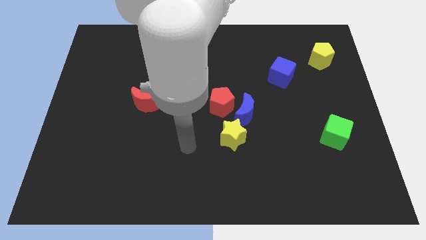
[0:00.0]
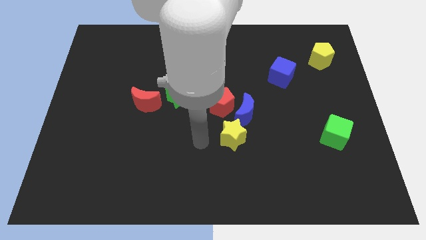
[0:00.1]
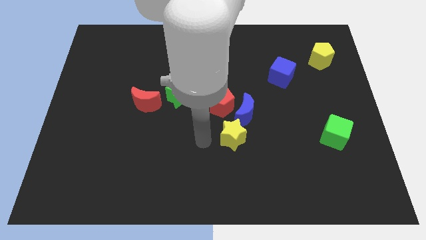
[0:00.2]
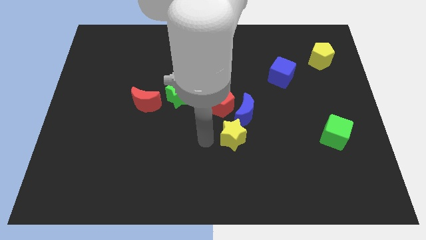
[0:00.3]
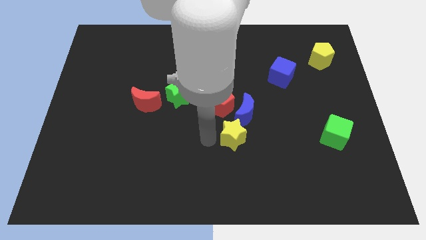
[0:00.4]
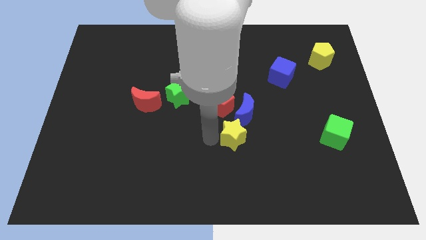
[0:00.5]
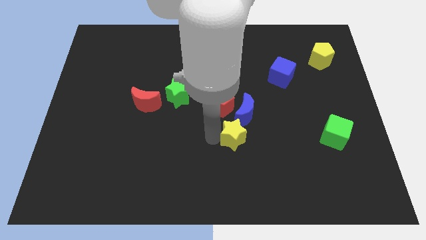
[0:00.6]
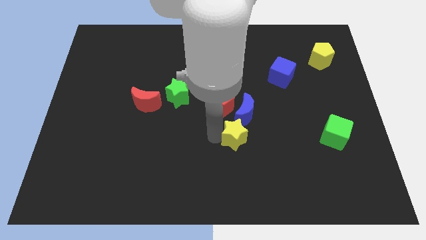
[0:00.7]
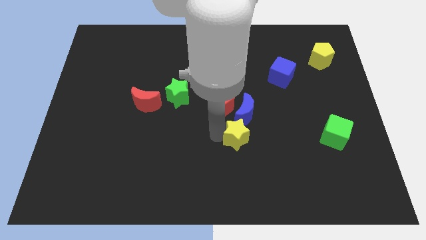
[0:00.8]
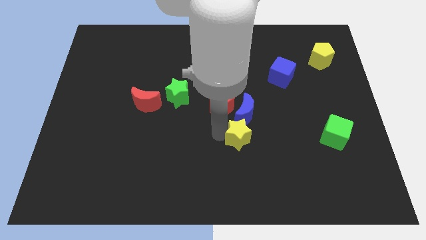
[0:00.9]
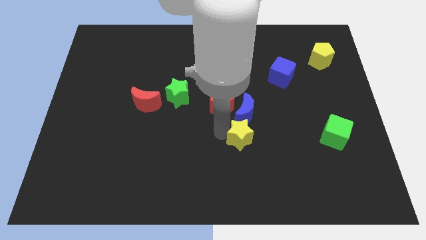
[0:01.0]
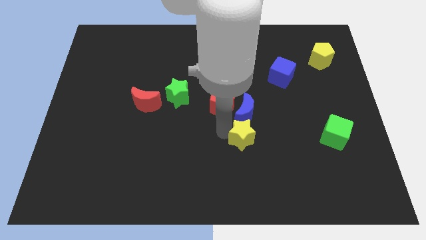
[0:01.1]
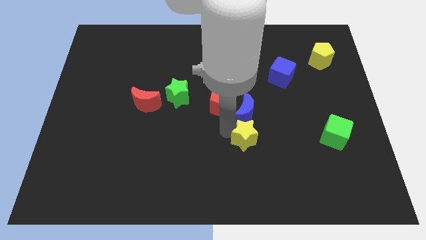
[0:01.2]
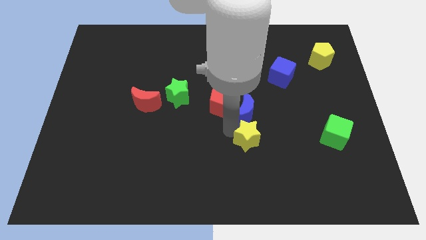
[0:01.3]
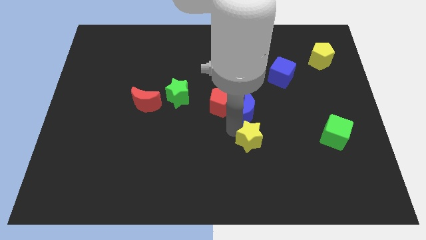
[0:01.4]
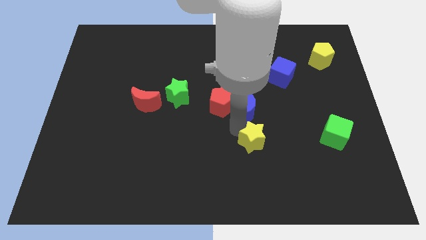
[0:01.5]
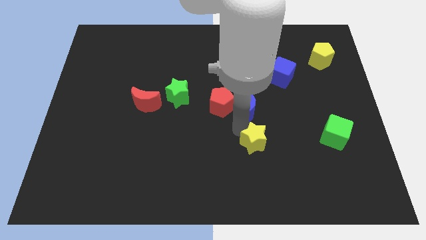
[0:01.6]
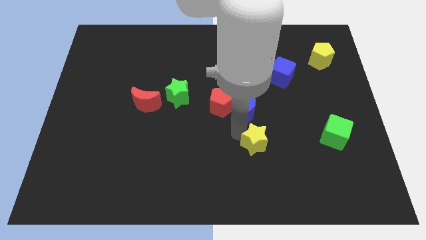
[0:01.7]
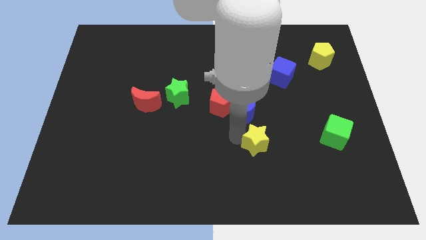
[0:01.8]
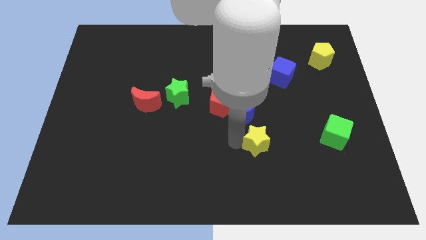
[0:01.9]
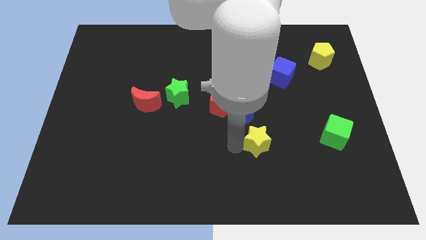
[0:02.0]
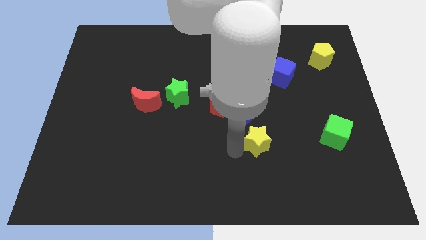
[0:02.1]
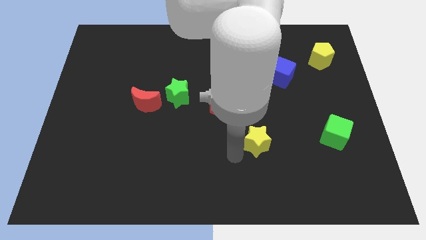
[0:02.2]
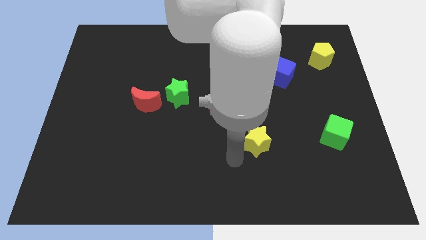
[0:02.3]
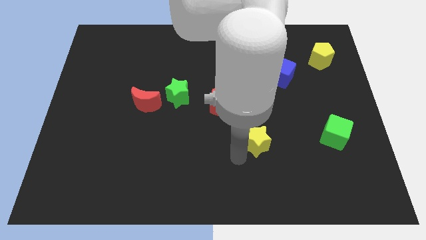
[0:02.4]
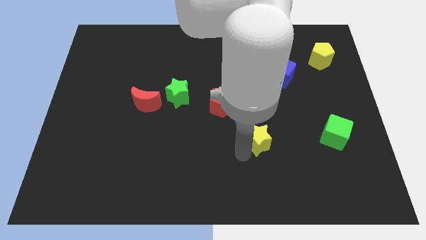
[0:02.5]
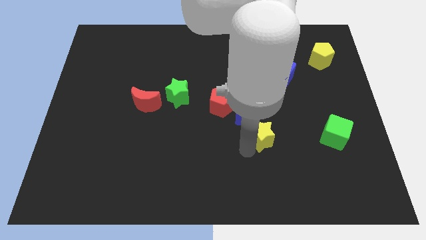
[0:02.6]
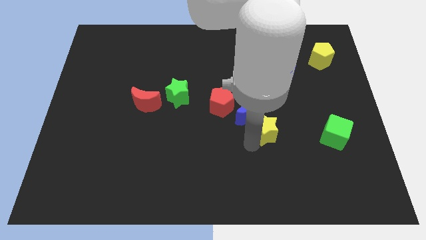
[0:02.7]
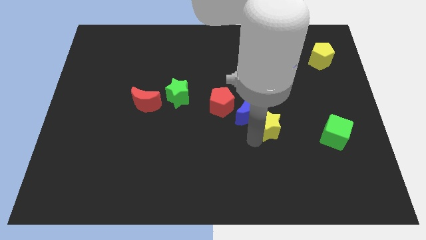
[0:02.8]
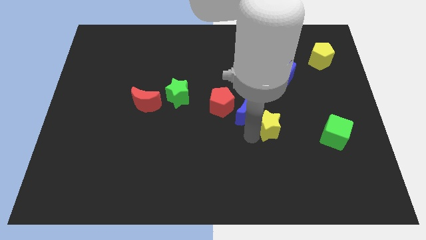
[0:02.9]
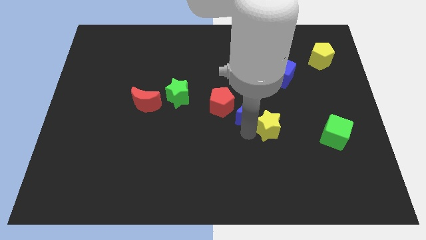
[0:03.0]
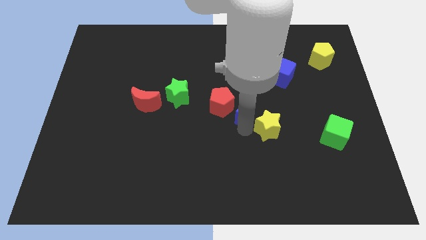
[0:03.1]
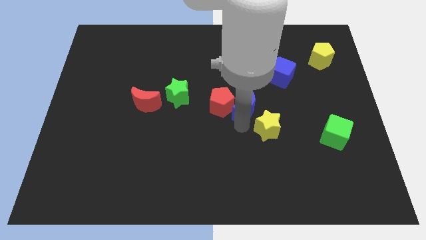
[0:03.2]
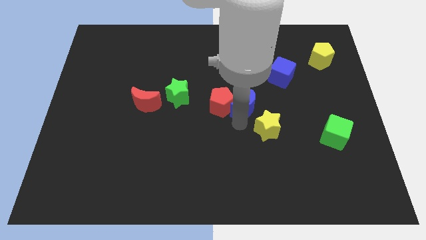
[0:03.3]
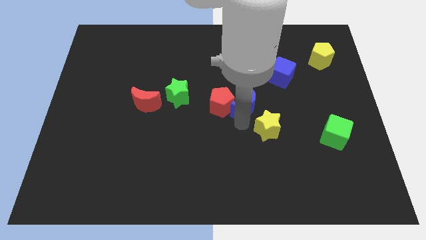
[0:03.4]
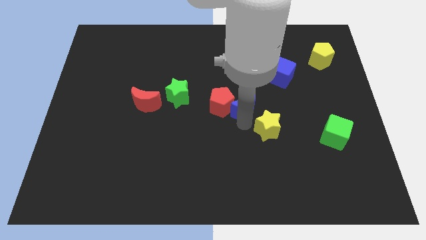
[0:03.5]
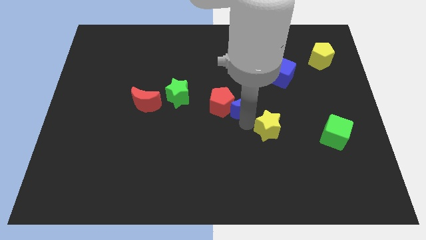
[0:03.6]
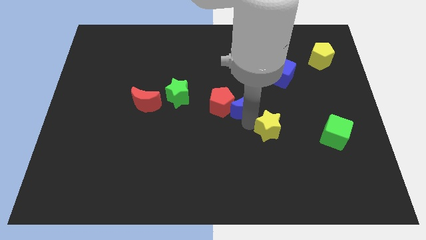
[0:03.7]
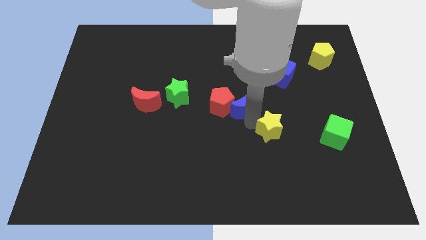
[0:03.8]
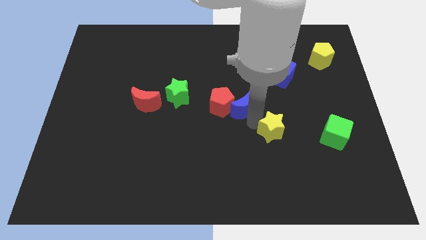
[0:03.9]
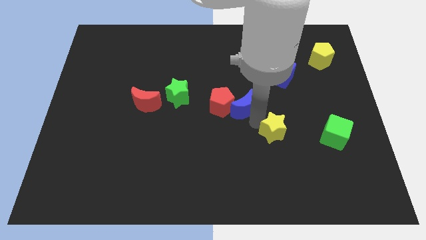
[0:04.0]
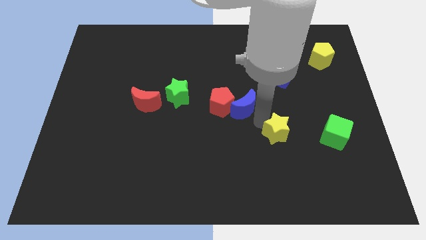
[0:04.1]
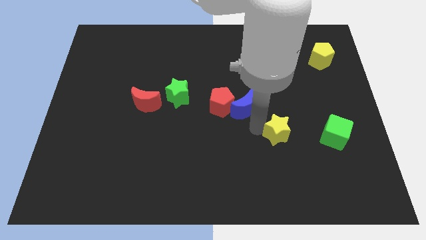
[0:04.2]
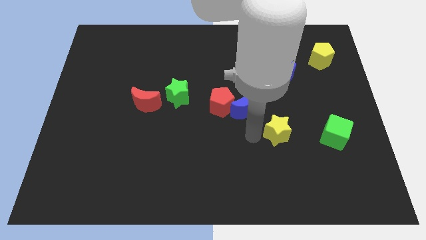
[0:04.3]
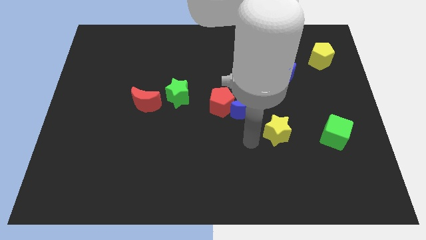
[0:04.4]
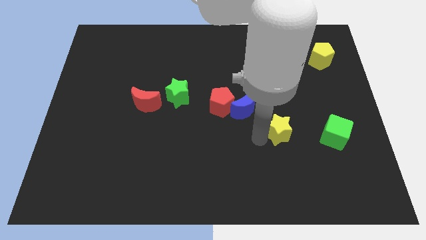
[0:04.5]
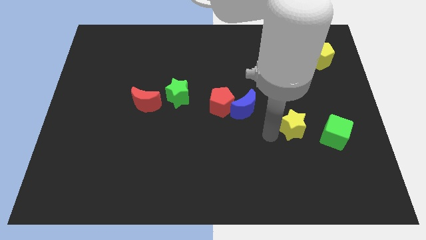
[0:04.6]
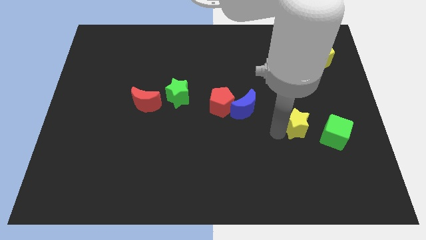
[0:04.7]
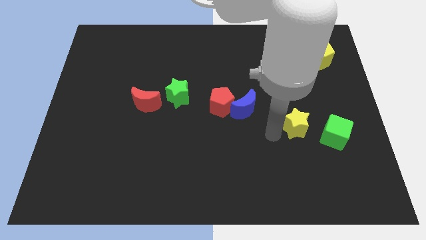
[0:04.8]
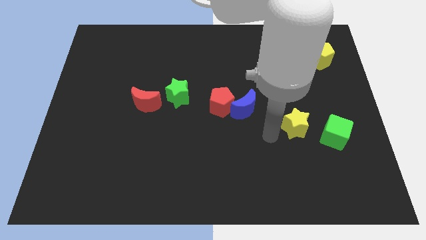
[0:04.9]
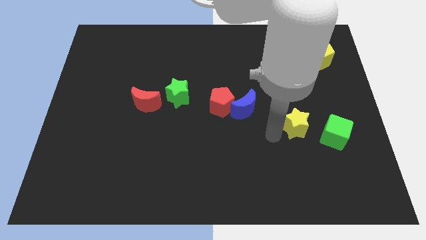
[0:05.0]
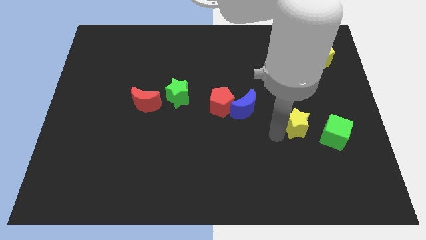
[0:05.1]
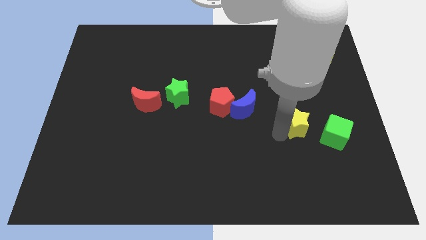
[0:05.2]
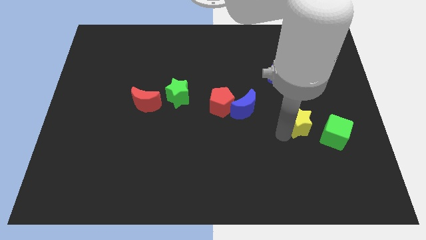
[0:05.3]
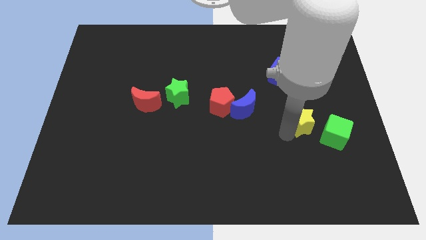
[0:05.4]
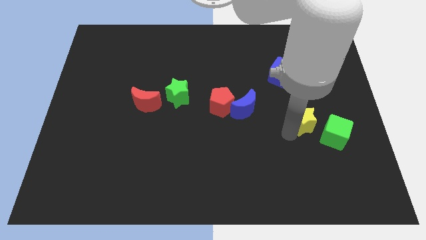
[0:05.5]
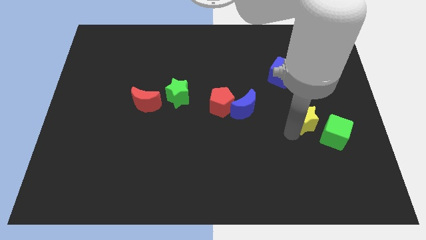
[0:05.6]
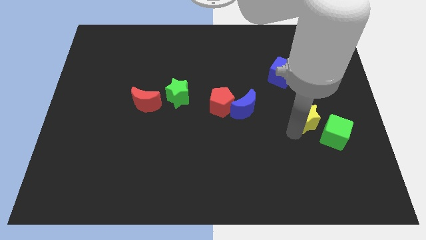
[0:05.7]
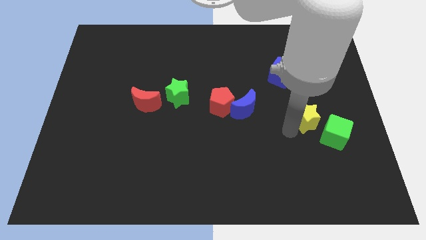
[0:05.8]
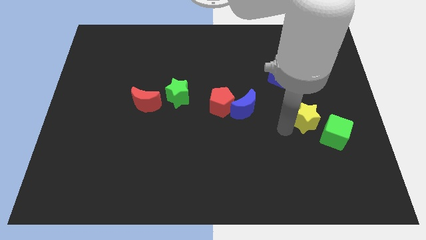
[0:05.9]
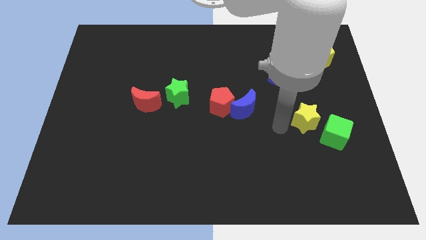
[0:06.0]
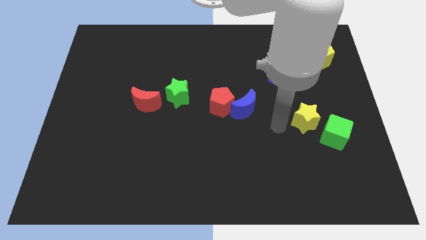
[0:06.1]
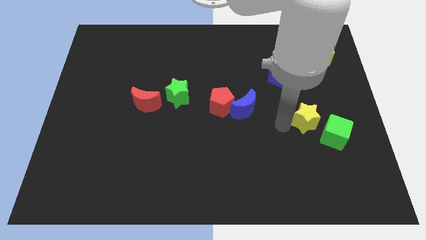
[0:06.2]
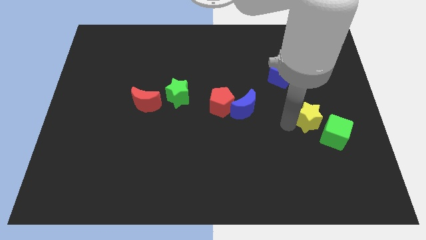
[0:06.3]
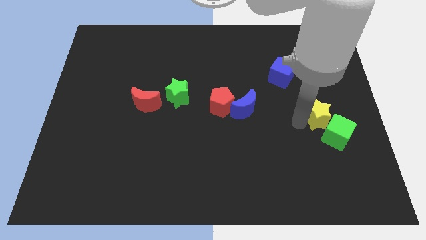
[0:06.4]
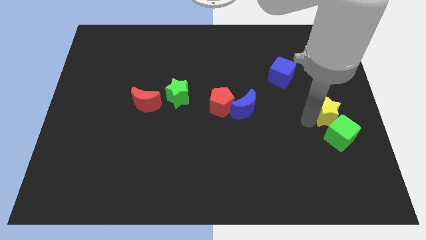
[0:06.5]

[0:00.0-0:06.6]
move the yellow star to the right side
